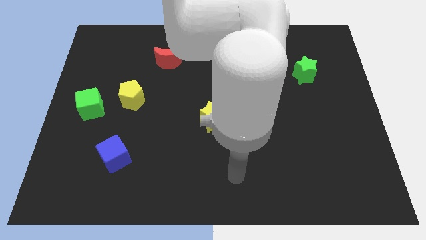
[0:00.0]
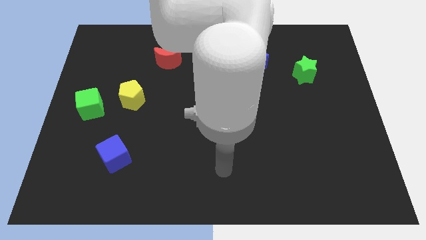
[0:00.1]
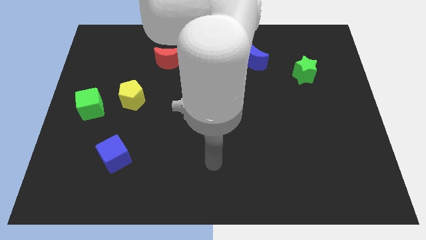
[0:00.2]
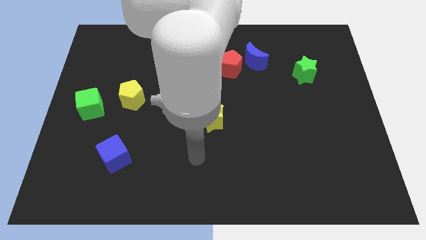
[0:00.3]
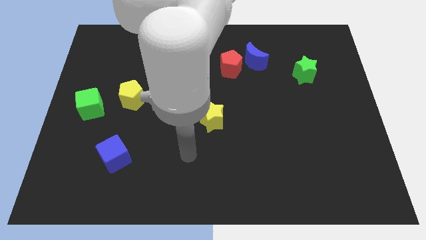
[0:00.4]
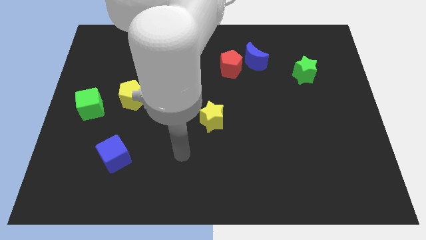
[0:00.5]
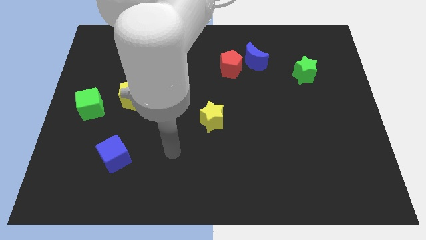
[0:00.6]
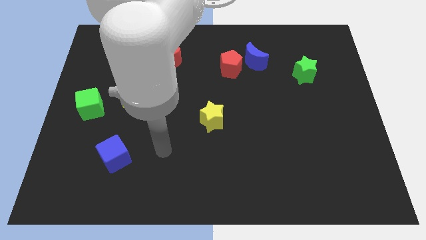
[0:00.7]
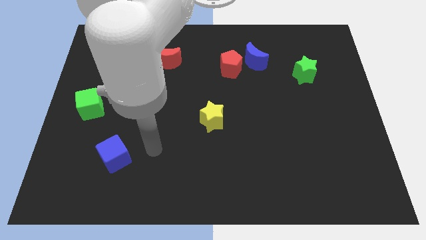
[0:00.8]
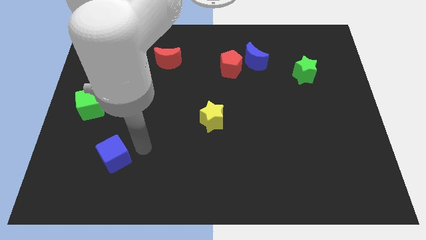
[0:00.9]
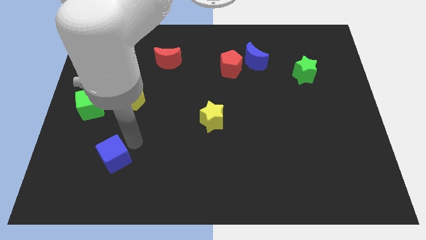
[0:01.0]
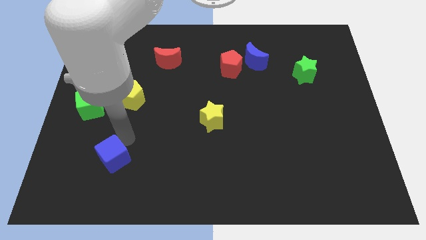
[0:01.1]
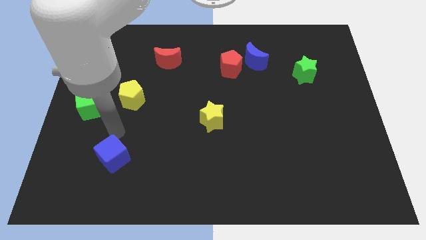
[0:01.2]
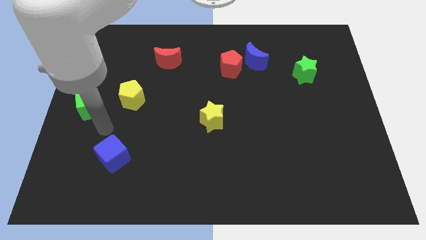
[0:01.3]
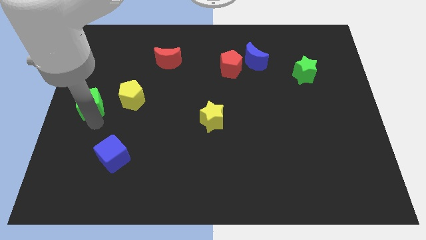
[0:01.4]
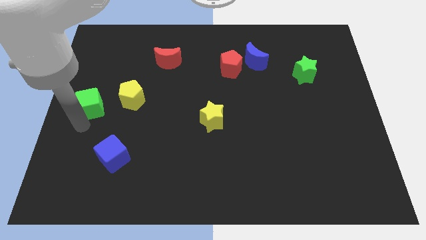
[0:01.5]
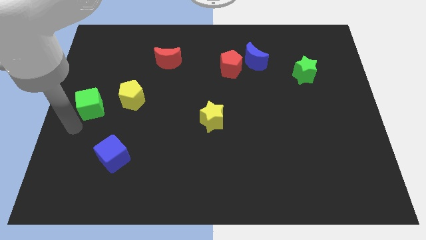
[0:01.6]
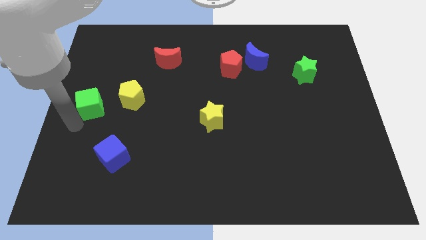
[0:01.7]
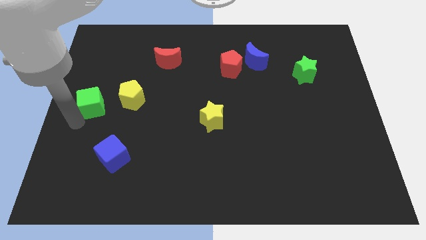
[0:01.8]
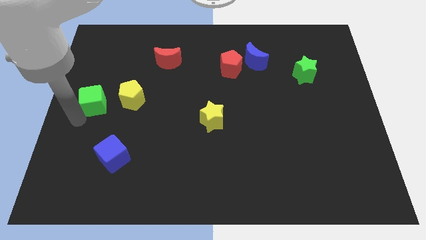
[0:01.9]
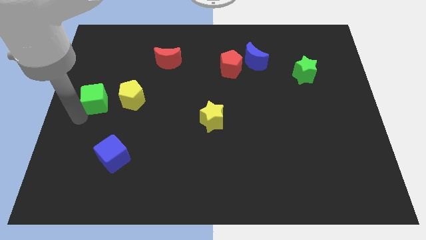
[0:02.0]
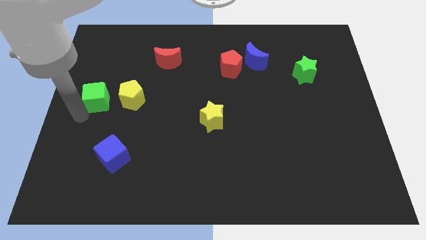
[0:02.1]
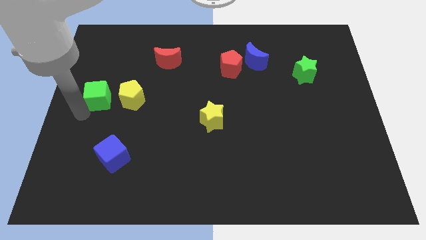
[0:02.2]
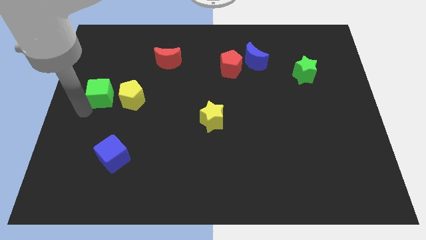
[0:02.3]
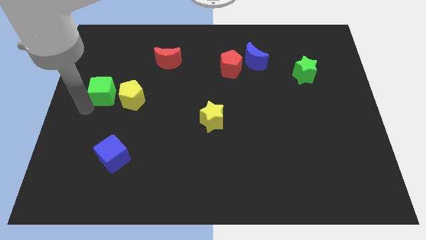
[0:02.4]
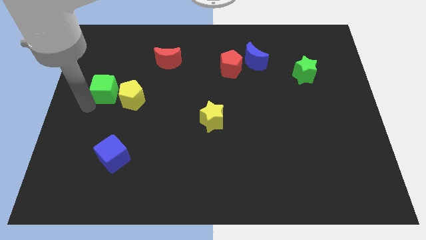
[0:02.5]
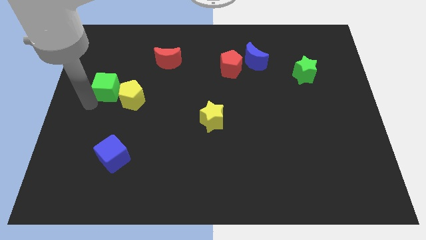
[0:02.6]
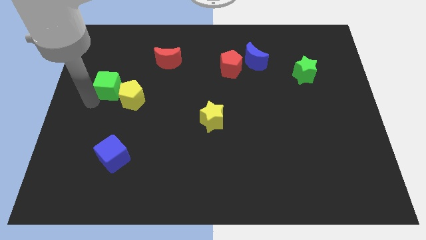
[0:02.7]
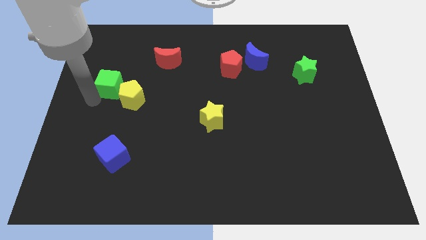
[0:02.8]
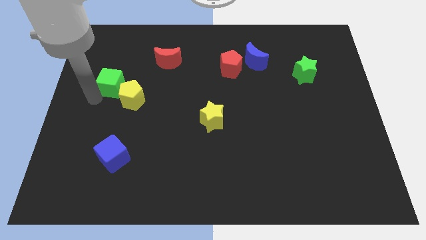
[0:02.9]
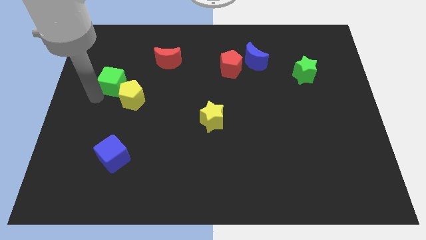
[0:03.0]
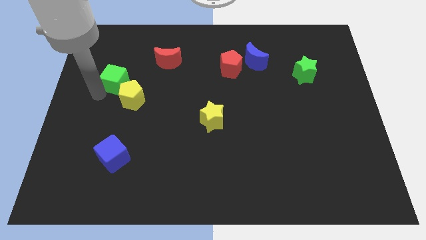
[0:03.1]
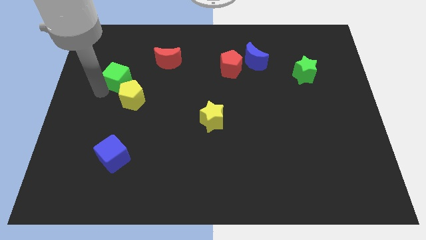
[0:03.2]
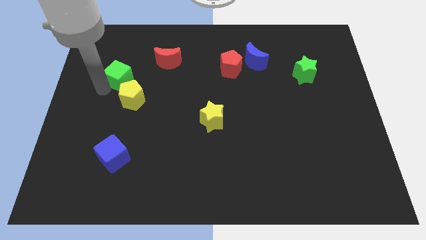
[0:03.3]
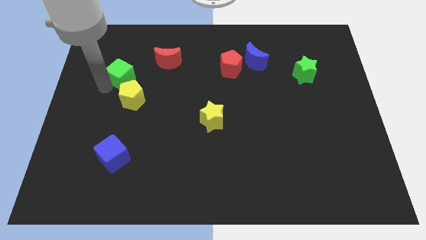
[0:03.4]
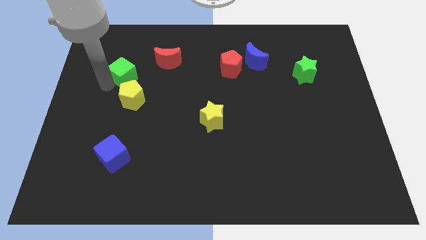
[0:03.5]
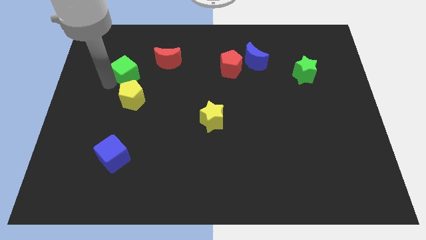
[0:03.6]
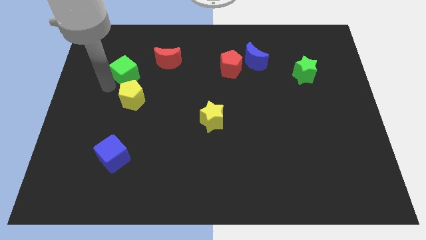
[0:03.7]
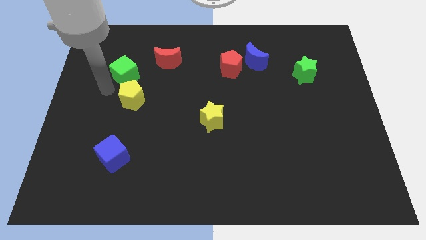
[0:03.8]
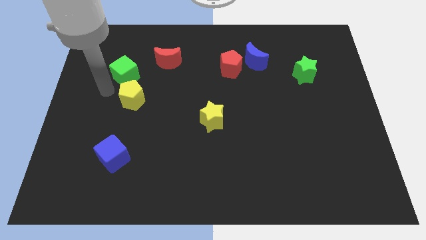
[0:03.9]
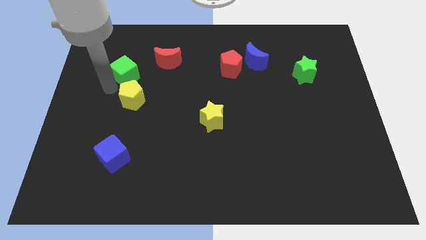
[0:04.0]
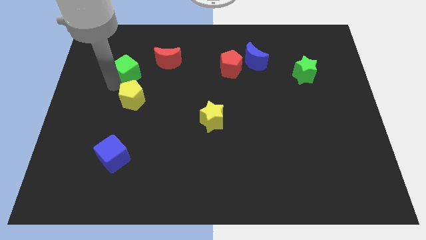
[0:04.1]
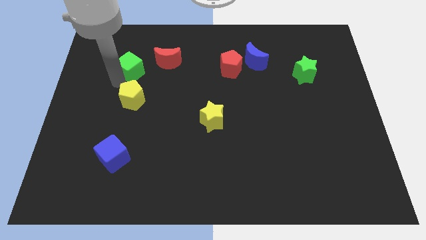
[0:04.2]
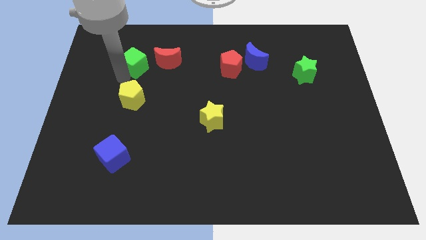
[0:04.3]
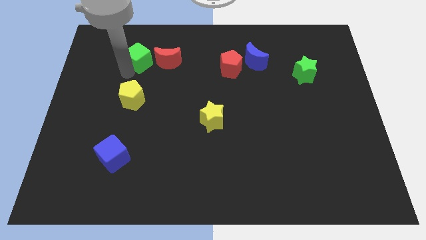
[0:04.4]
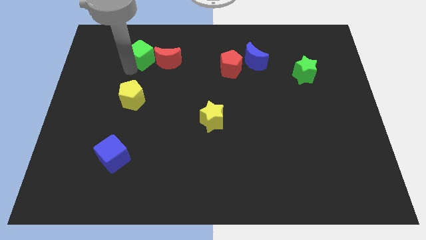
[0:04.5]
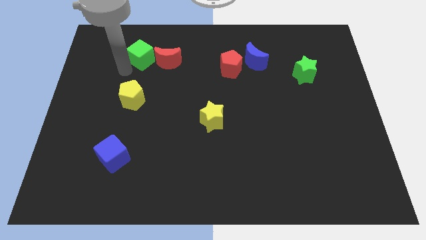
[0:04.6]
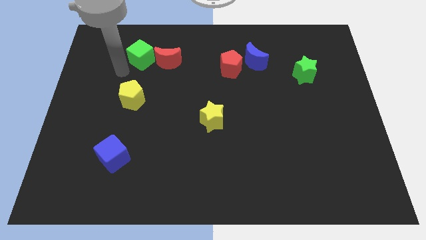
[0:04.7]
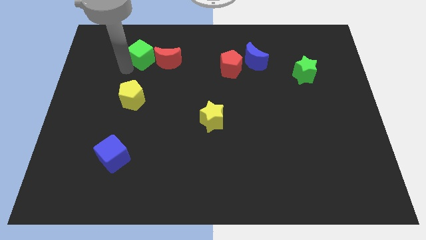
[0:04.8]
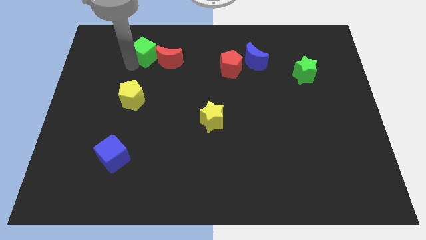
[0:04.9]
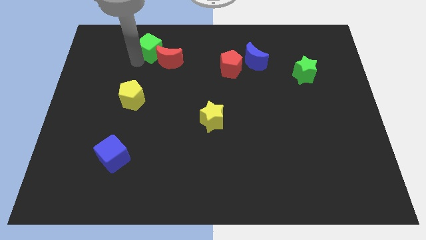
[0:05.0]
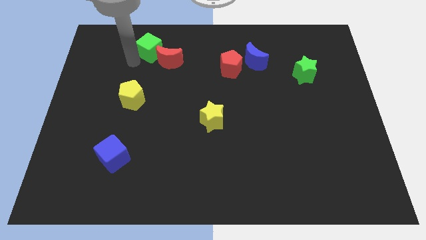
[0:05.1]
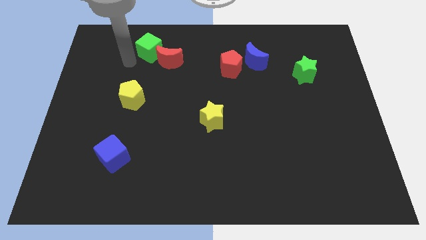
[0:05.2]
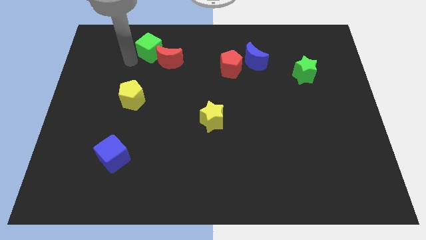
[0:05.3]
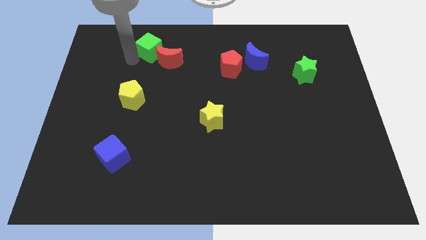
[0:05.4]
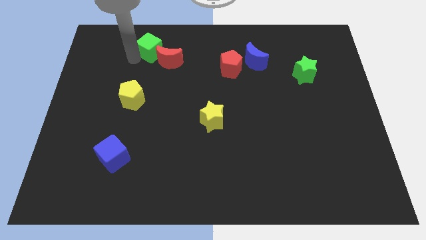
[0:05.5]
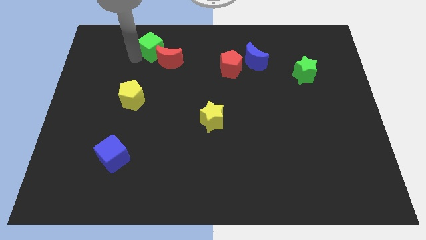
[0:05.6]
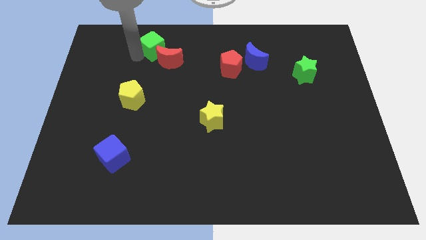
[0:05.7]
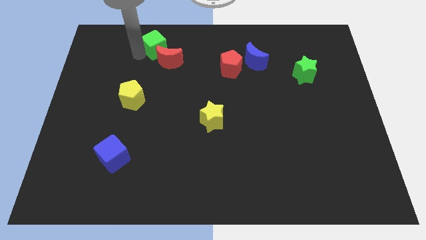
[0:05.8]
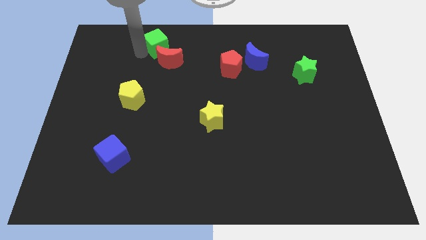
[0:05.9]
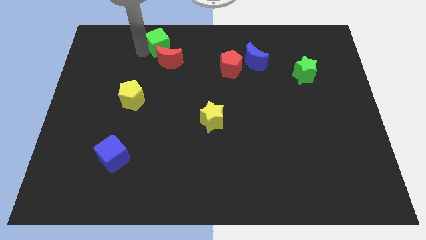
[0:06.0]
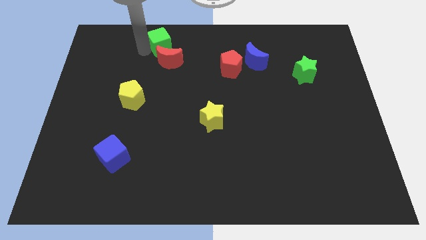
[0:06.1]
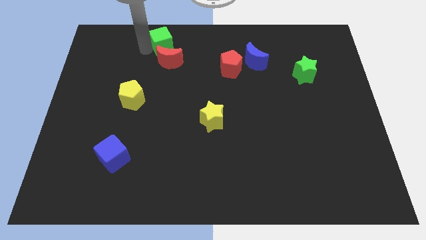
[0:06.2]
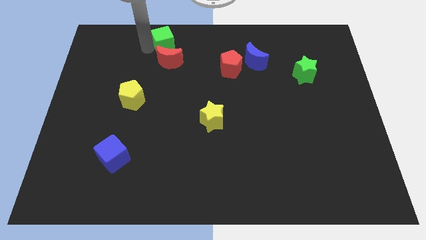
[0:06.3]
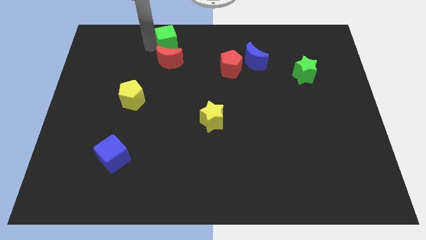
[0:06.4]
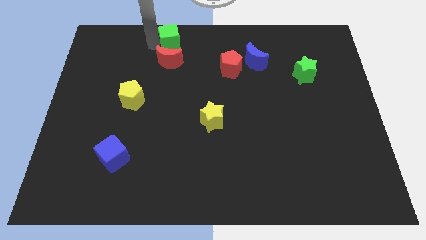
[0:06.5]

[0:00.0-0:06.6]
move the green cube to the top
